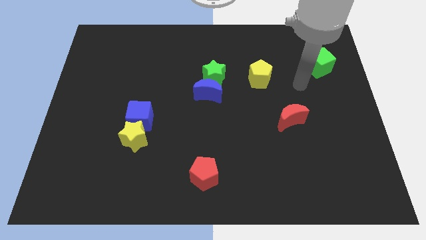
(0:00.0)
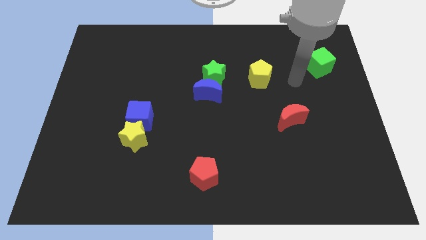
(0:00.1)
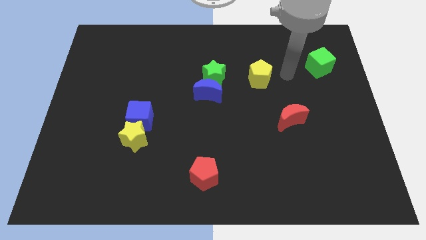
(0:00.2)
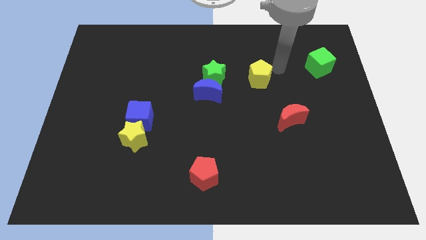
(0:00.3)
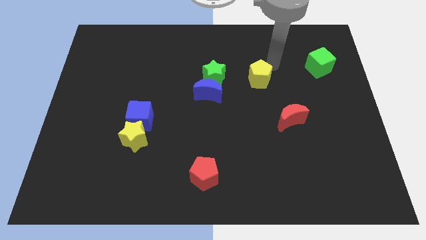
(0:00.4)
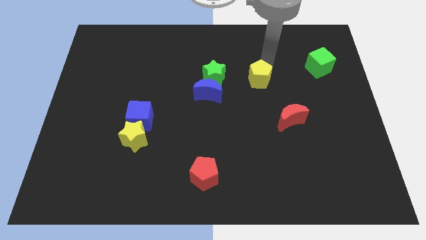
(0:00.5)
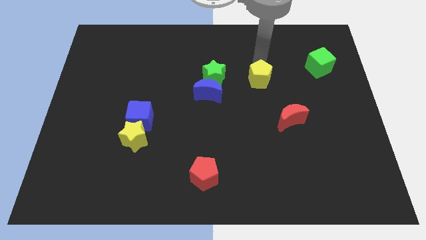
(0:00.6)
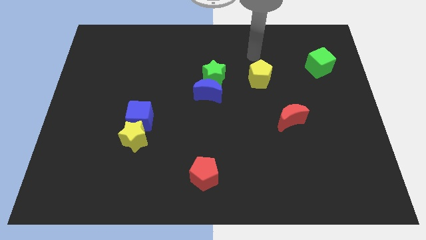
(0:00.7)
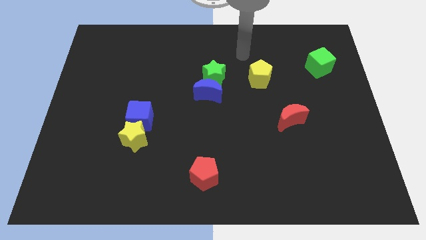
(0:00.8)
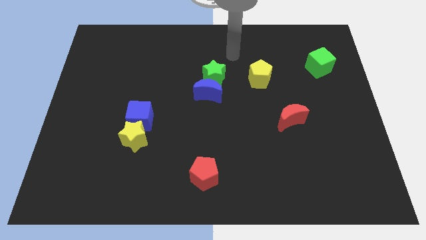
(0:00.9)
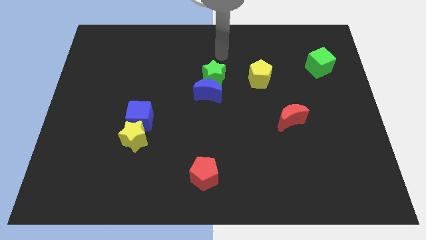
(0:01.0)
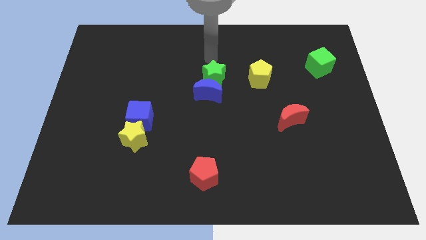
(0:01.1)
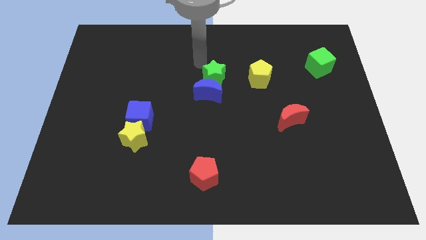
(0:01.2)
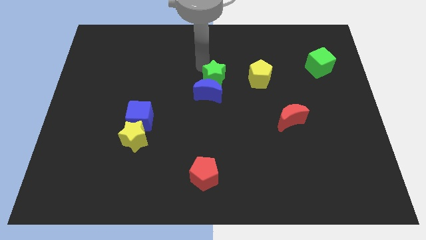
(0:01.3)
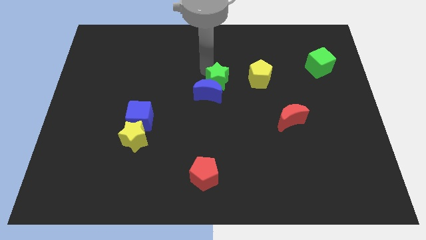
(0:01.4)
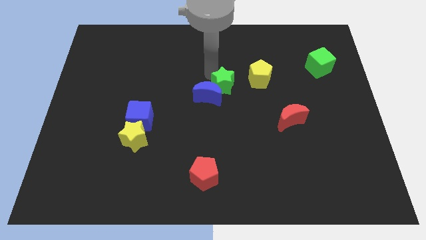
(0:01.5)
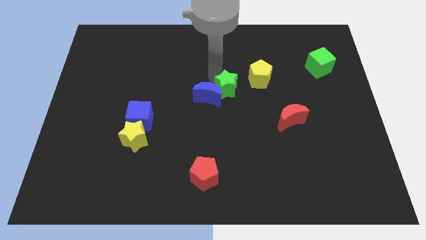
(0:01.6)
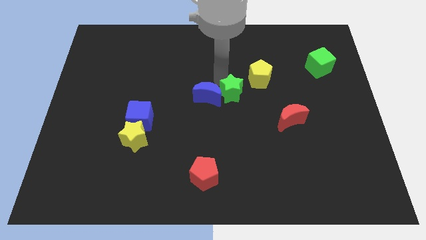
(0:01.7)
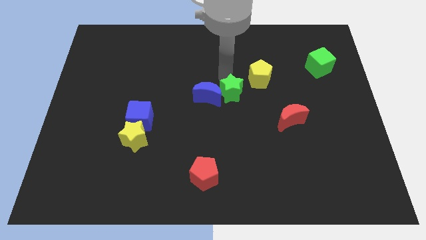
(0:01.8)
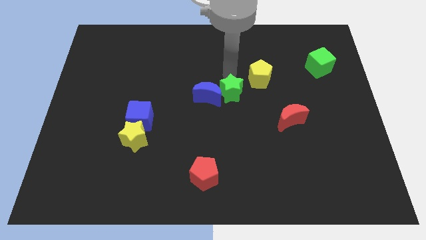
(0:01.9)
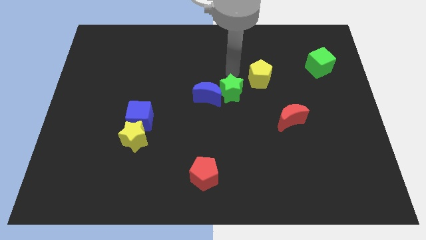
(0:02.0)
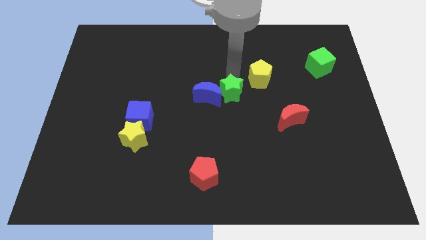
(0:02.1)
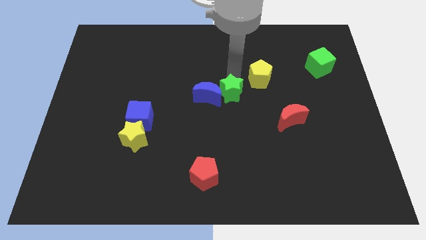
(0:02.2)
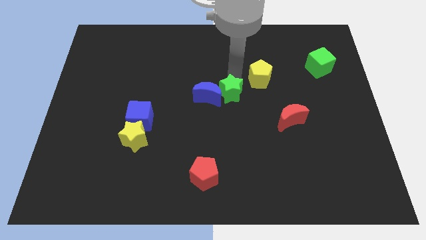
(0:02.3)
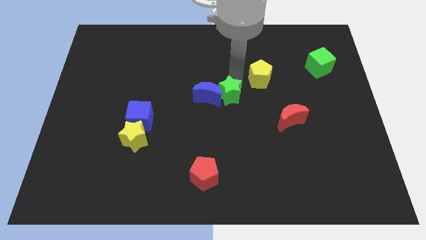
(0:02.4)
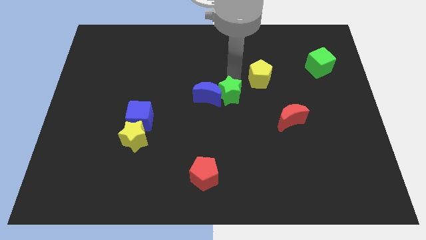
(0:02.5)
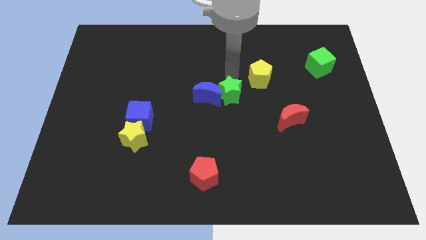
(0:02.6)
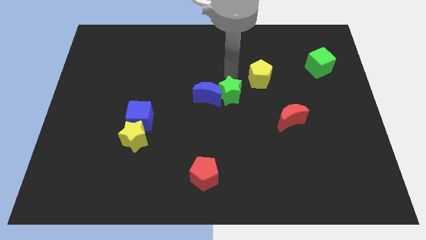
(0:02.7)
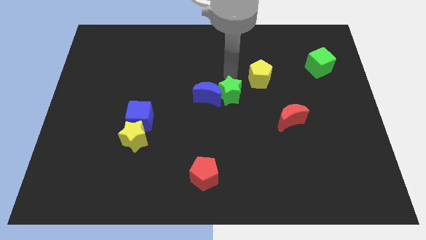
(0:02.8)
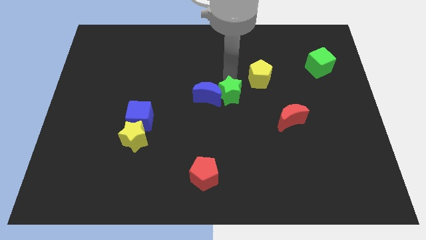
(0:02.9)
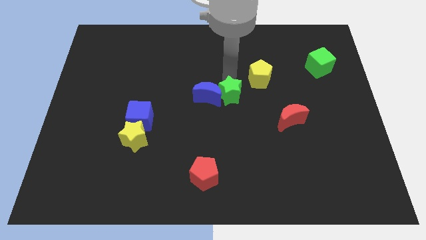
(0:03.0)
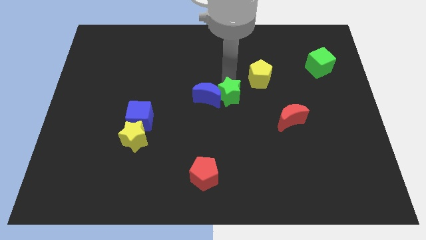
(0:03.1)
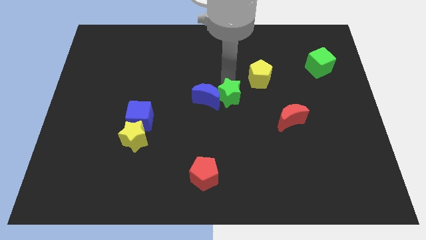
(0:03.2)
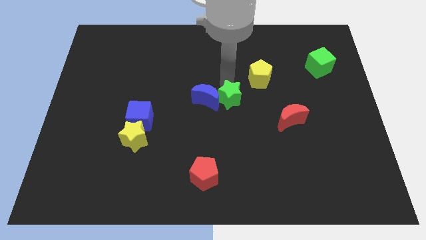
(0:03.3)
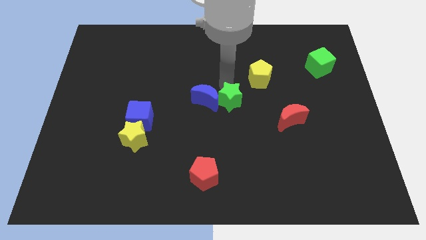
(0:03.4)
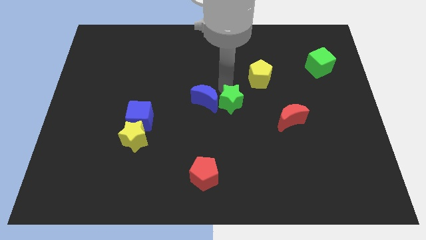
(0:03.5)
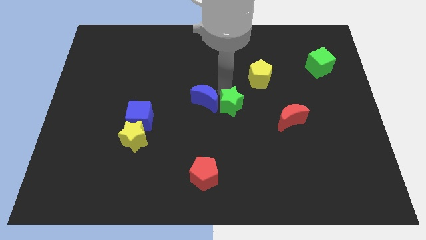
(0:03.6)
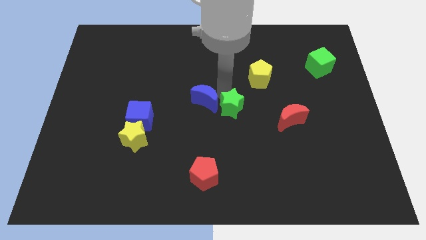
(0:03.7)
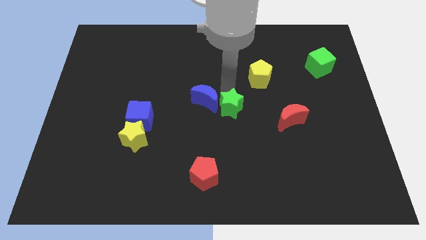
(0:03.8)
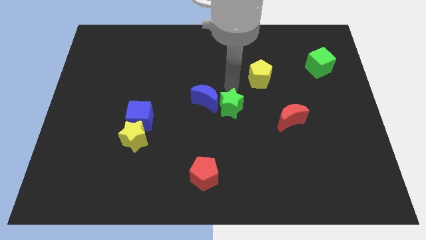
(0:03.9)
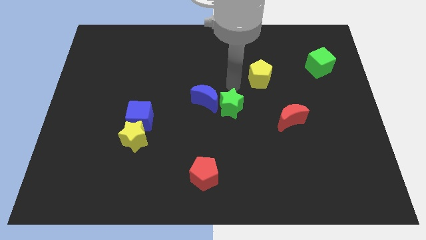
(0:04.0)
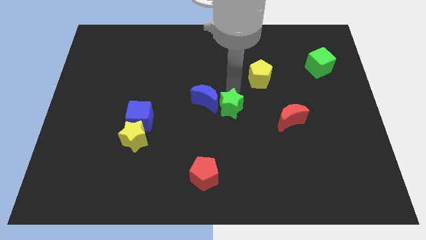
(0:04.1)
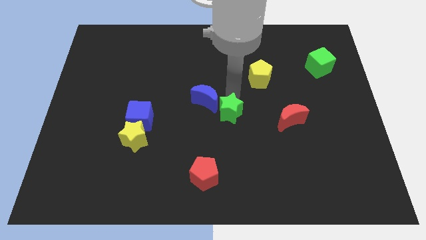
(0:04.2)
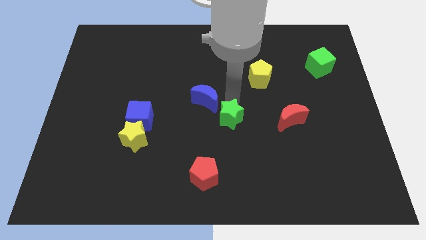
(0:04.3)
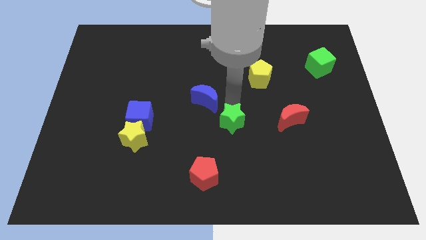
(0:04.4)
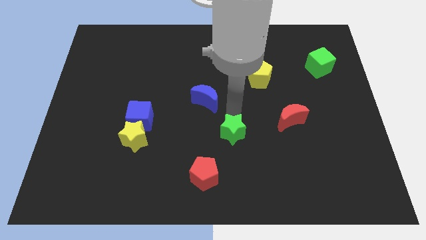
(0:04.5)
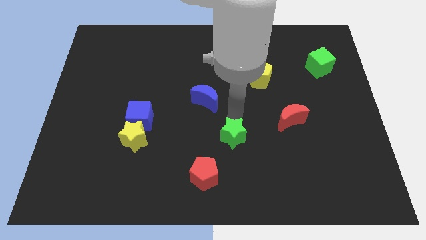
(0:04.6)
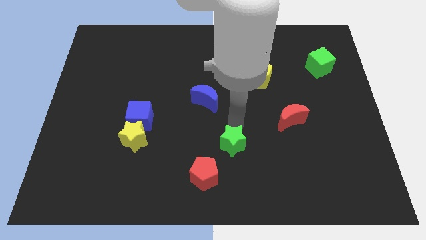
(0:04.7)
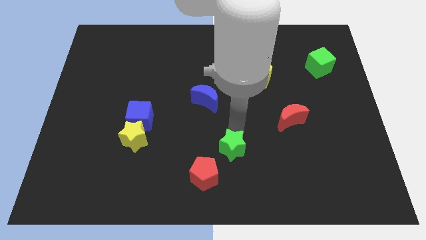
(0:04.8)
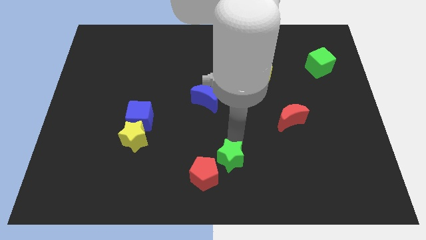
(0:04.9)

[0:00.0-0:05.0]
push the green star to the bottom

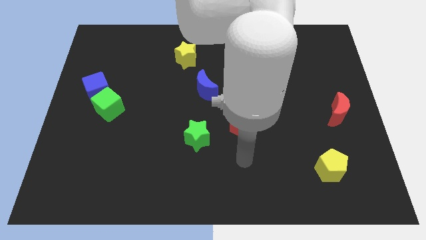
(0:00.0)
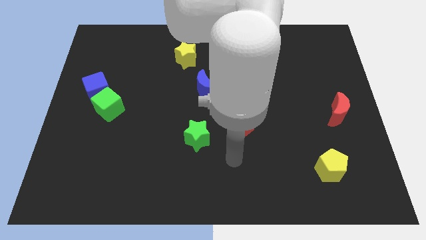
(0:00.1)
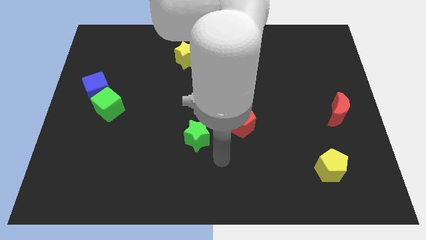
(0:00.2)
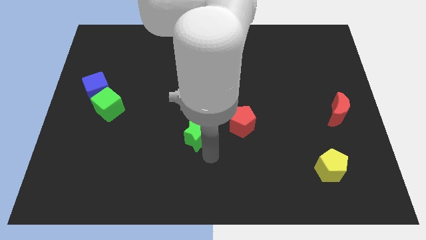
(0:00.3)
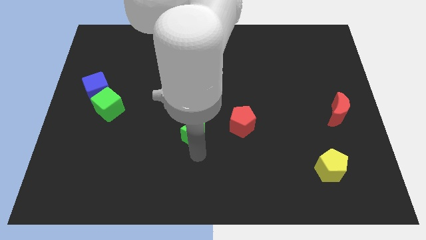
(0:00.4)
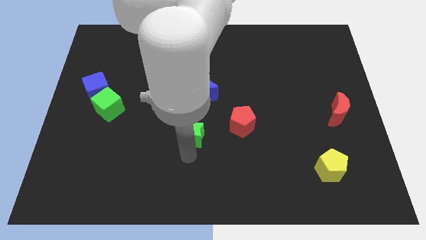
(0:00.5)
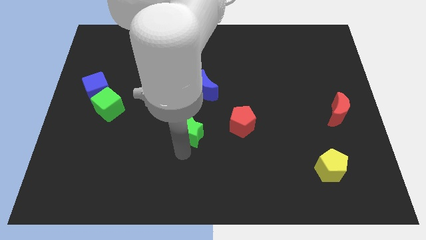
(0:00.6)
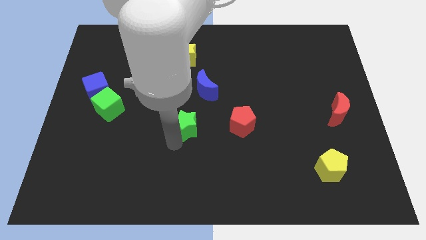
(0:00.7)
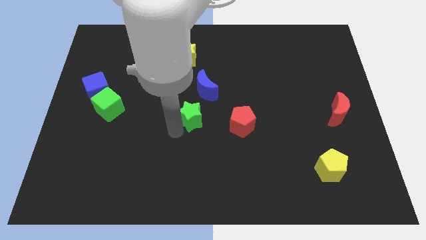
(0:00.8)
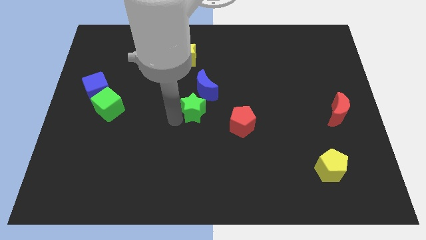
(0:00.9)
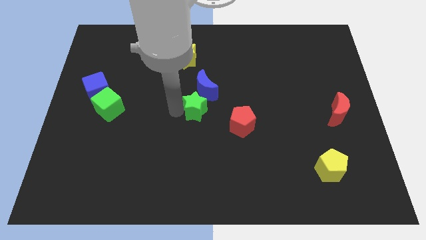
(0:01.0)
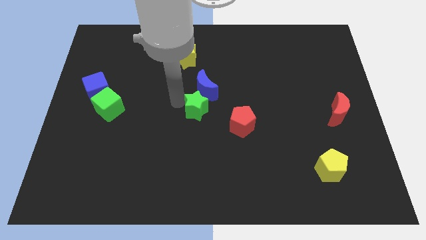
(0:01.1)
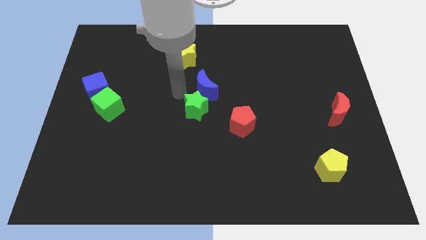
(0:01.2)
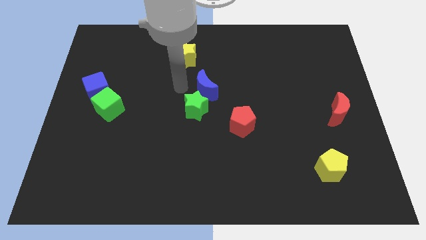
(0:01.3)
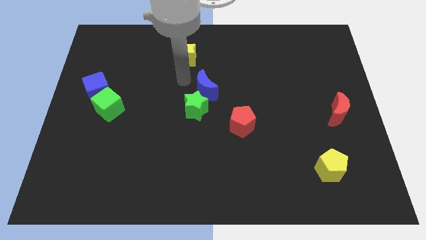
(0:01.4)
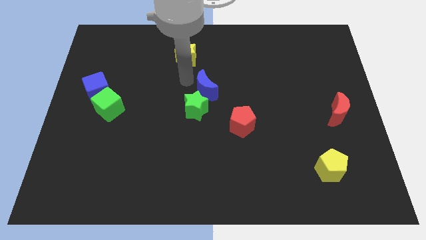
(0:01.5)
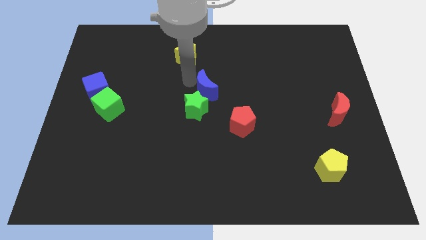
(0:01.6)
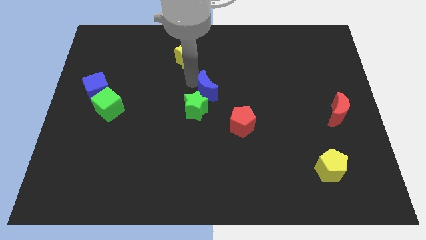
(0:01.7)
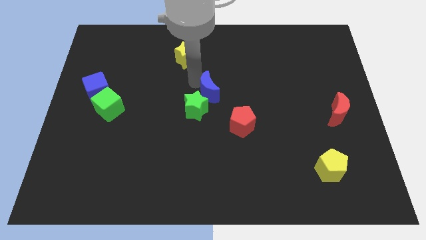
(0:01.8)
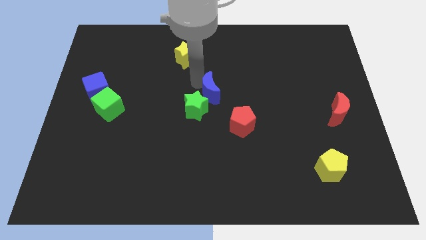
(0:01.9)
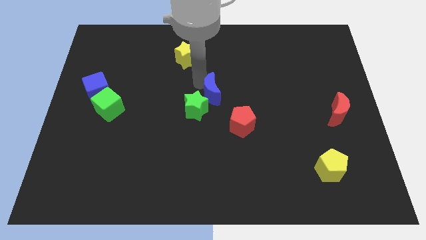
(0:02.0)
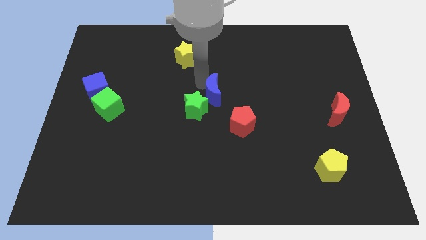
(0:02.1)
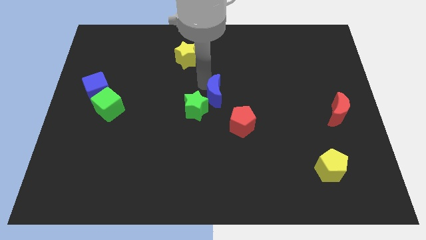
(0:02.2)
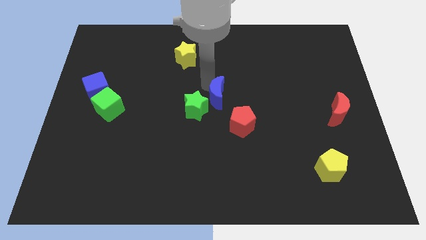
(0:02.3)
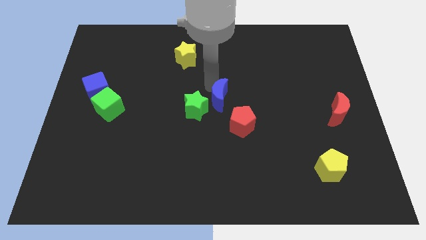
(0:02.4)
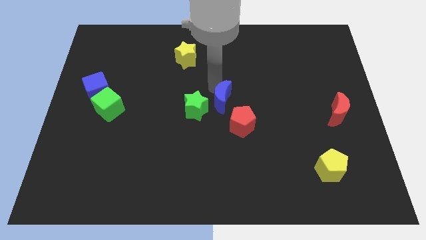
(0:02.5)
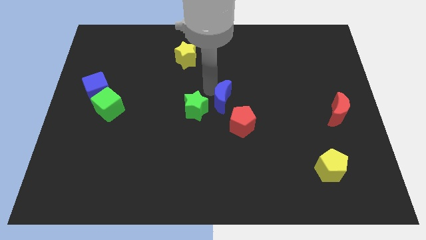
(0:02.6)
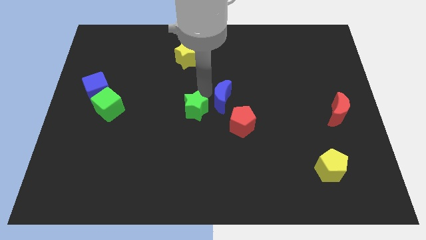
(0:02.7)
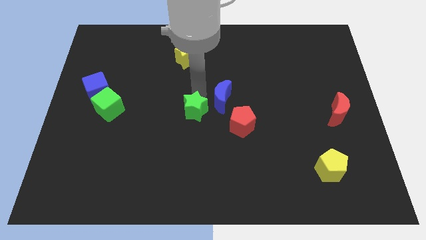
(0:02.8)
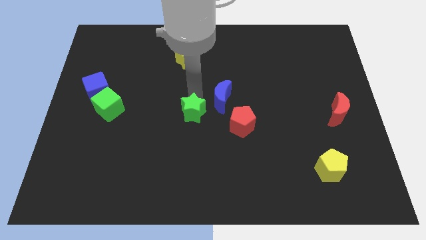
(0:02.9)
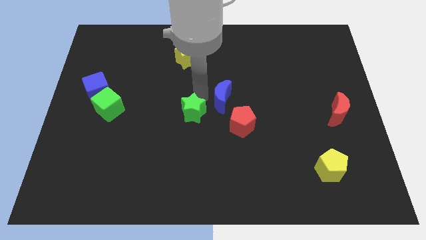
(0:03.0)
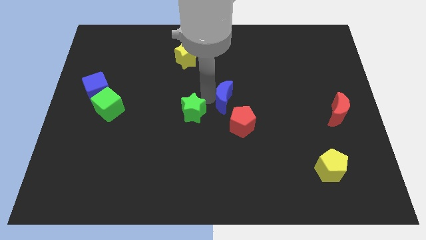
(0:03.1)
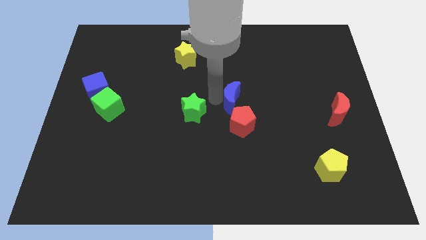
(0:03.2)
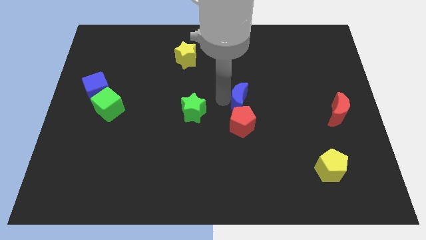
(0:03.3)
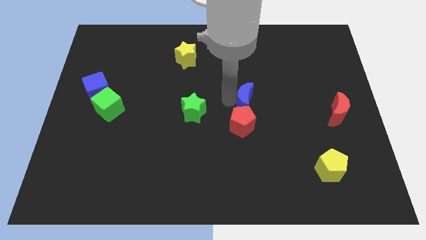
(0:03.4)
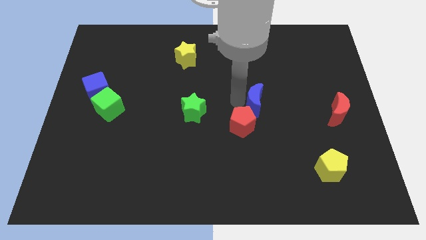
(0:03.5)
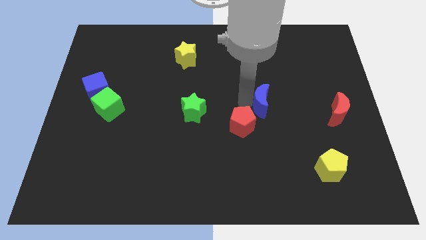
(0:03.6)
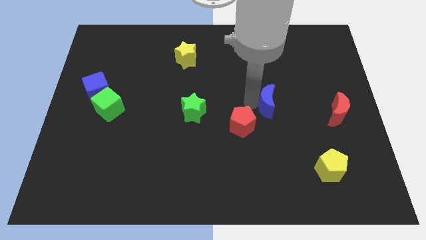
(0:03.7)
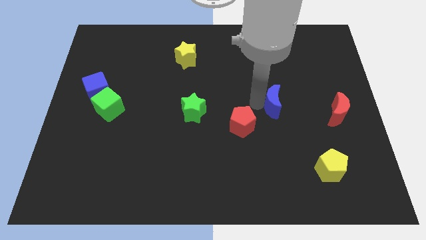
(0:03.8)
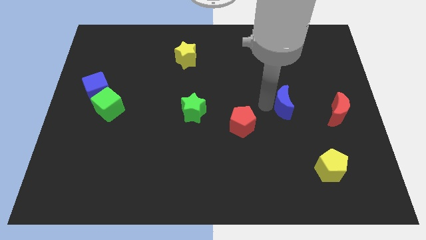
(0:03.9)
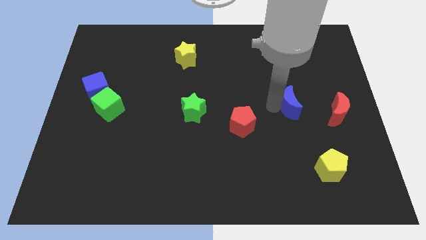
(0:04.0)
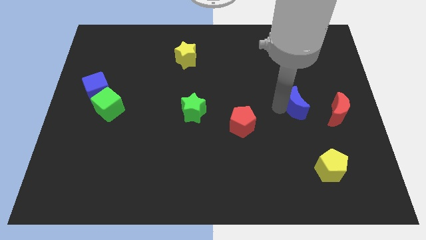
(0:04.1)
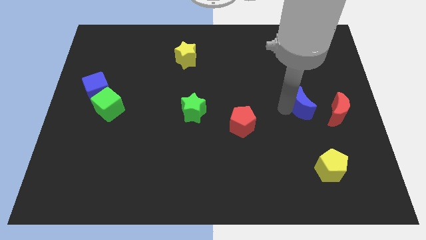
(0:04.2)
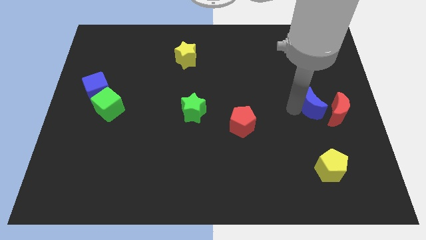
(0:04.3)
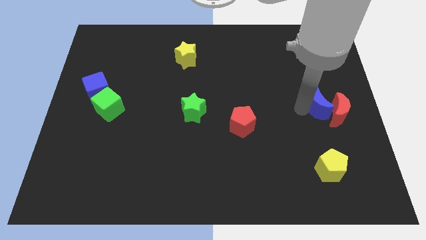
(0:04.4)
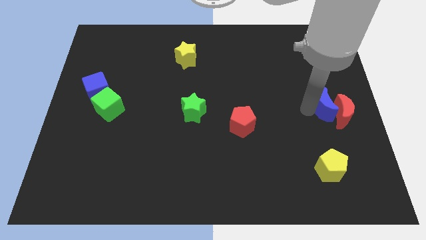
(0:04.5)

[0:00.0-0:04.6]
move the blue moon to the right side
